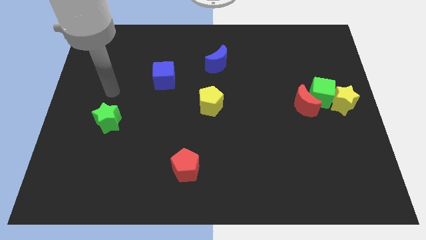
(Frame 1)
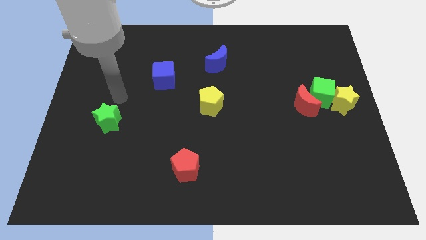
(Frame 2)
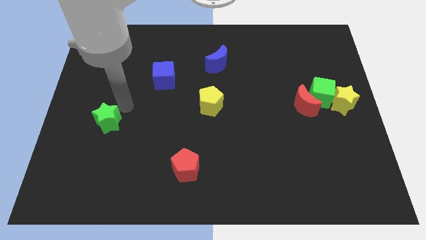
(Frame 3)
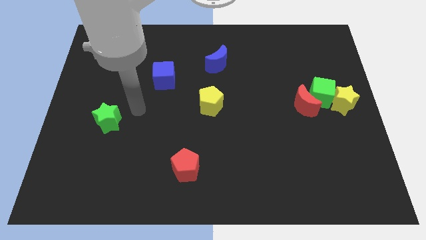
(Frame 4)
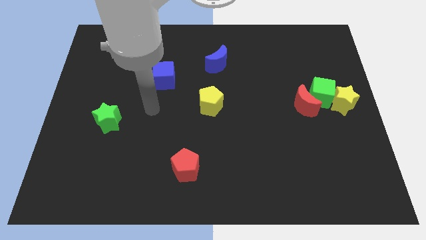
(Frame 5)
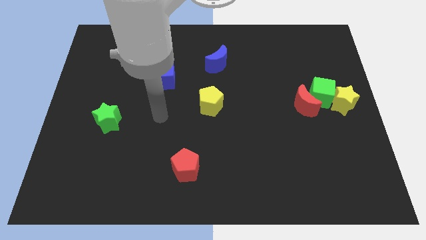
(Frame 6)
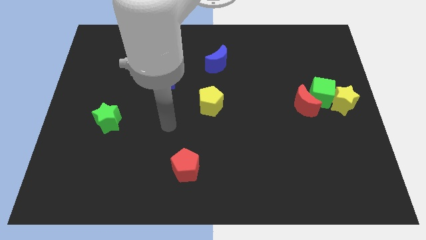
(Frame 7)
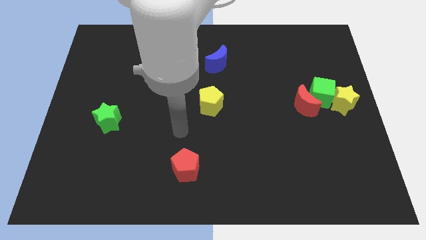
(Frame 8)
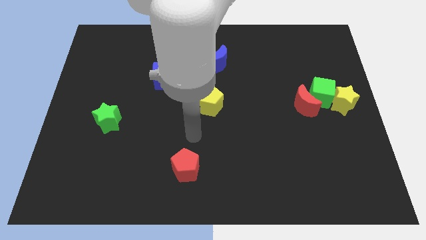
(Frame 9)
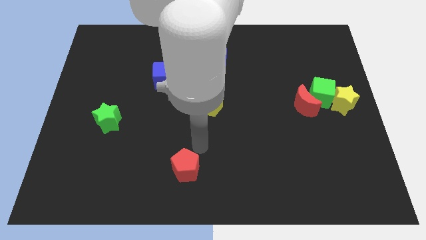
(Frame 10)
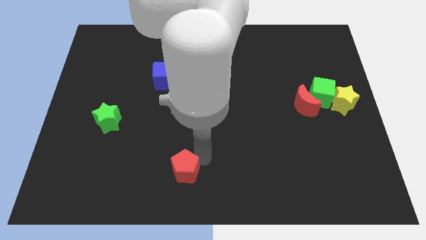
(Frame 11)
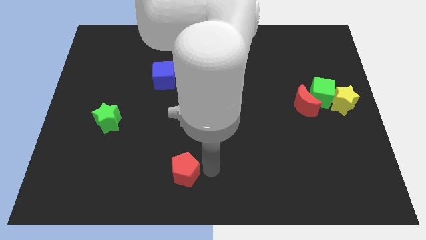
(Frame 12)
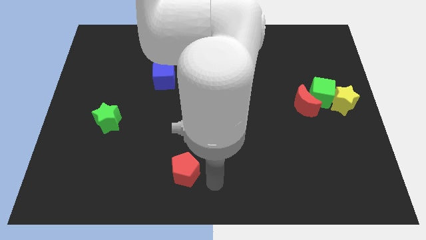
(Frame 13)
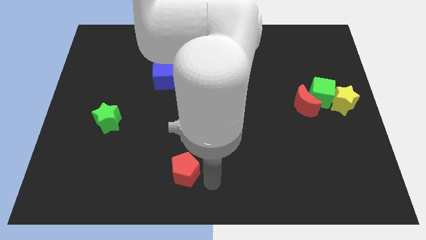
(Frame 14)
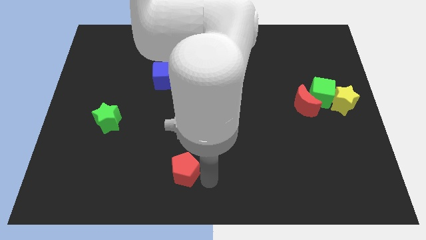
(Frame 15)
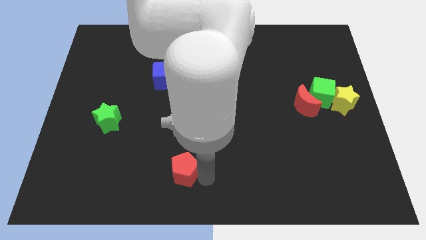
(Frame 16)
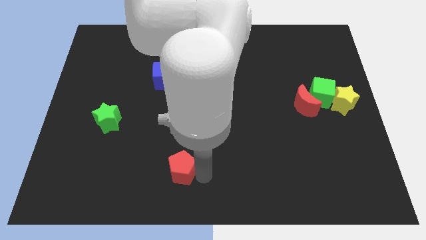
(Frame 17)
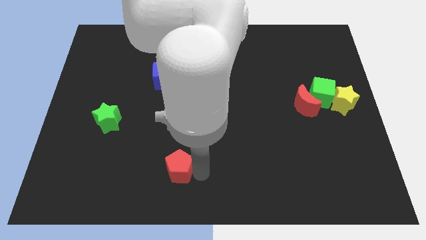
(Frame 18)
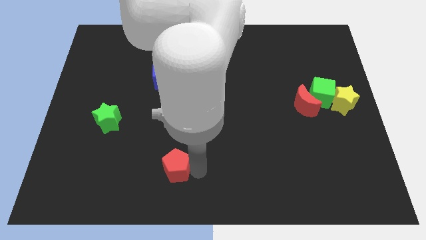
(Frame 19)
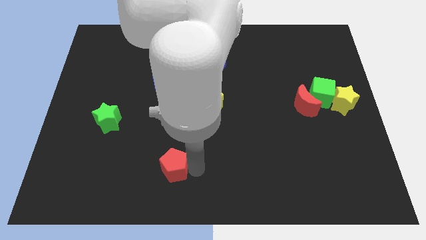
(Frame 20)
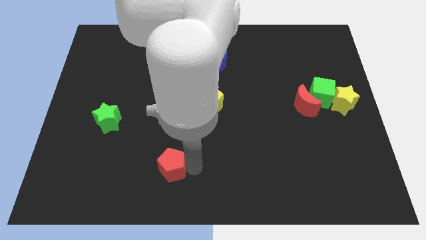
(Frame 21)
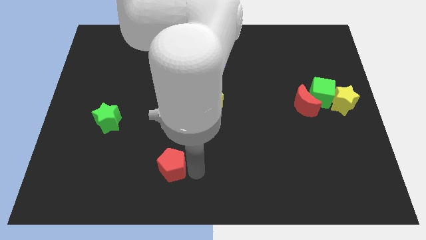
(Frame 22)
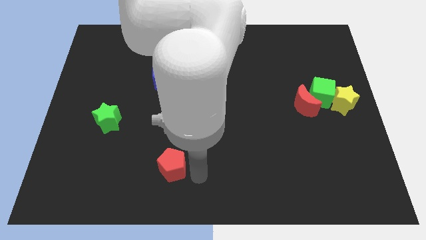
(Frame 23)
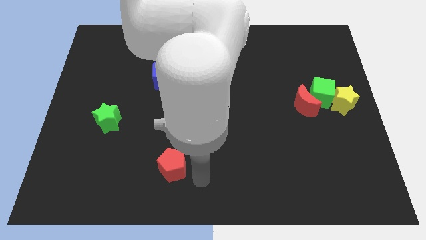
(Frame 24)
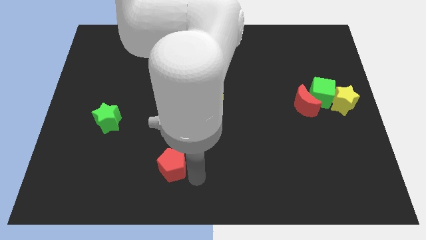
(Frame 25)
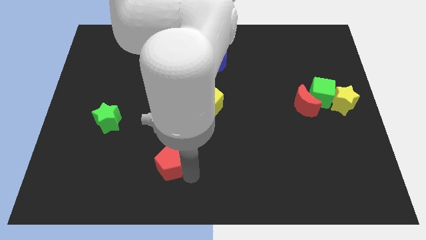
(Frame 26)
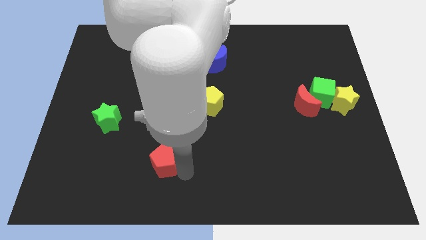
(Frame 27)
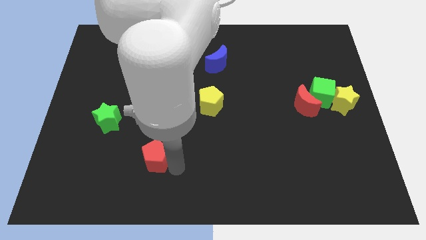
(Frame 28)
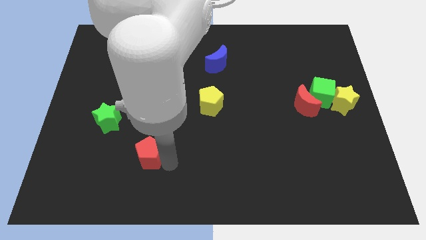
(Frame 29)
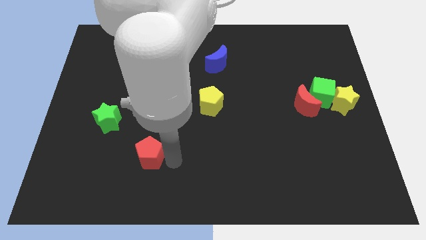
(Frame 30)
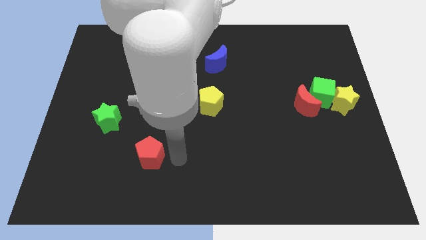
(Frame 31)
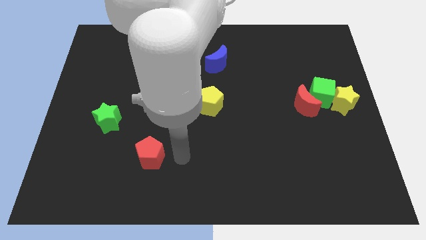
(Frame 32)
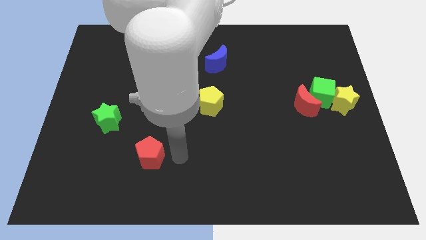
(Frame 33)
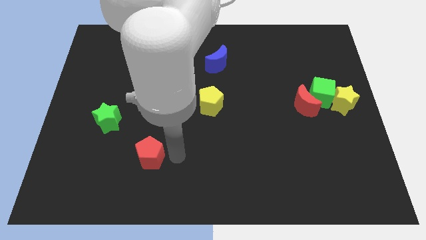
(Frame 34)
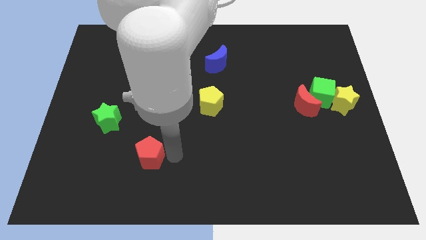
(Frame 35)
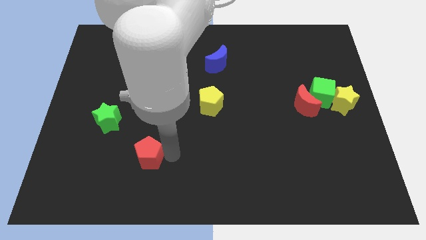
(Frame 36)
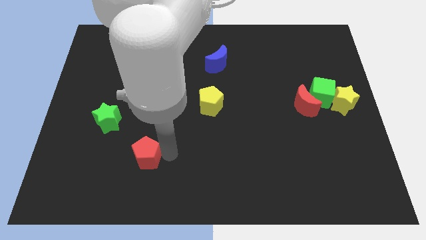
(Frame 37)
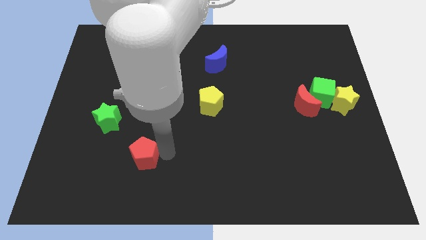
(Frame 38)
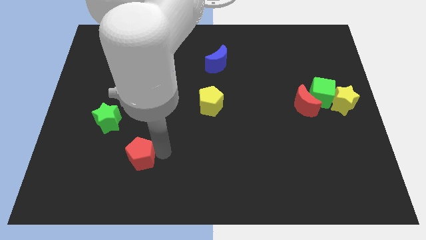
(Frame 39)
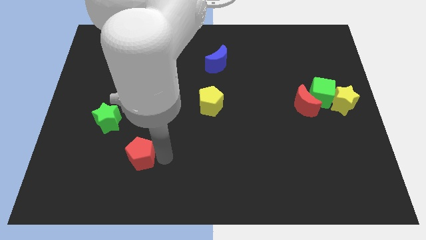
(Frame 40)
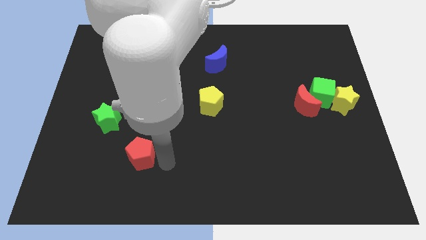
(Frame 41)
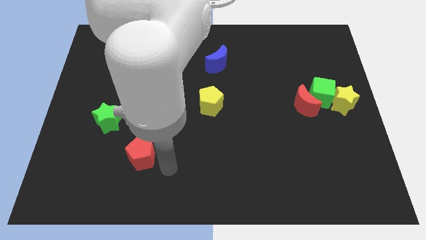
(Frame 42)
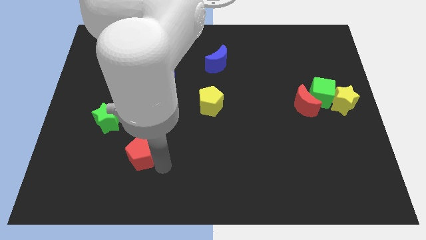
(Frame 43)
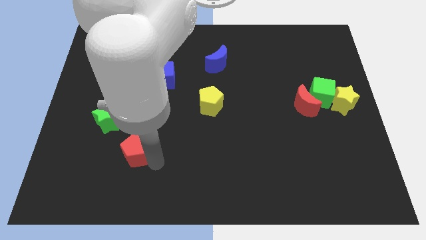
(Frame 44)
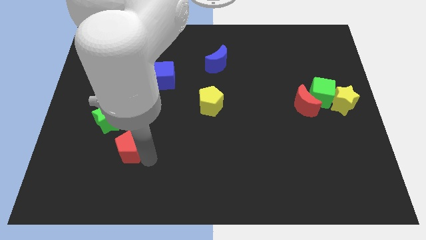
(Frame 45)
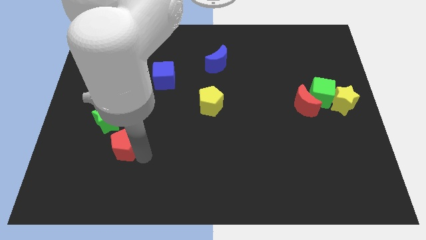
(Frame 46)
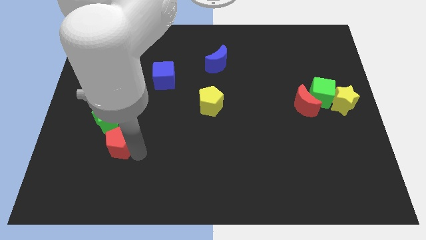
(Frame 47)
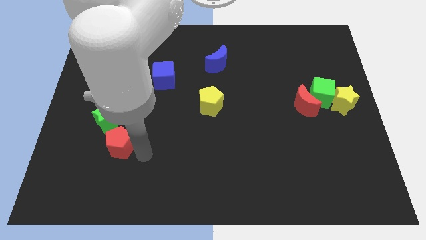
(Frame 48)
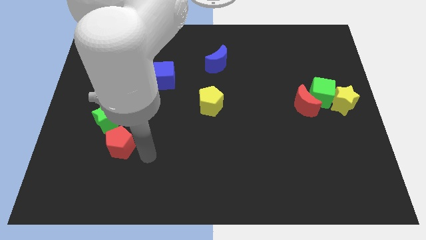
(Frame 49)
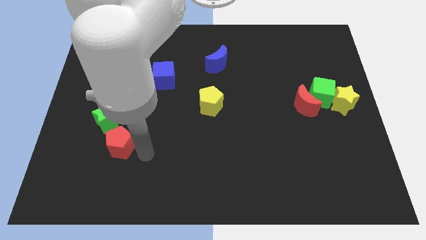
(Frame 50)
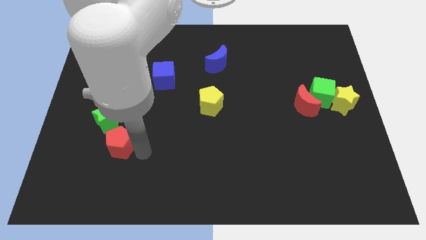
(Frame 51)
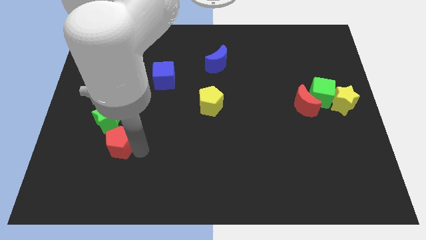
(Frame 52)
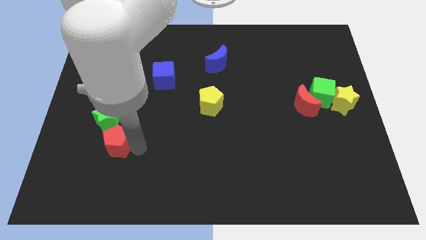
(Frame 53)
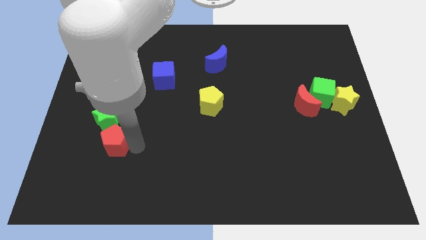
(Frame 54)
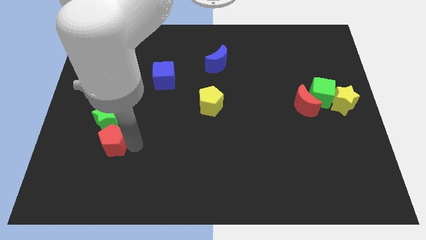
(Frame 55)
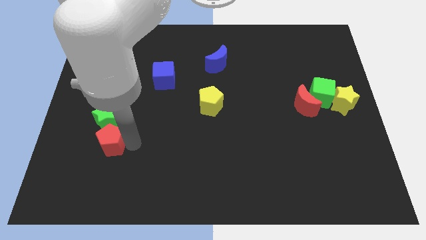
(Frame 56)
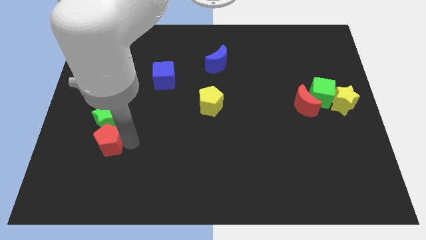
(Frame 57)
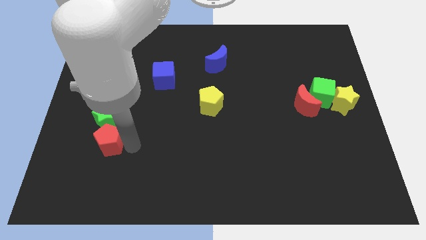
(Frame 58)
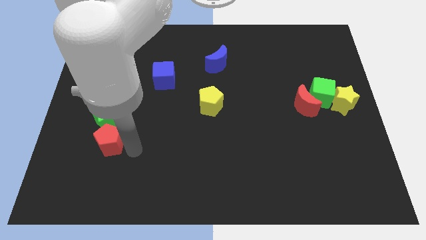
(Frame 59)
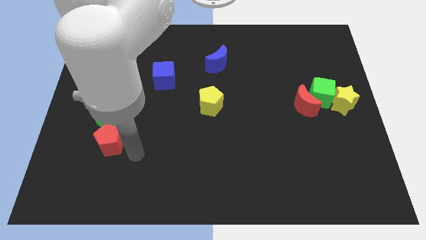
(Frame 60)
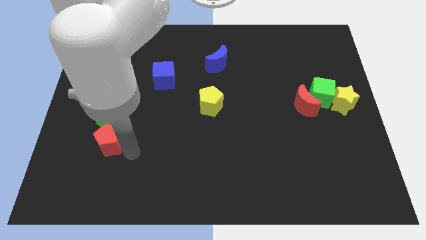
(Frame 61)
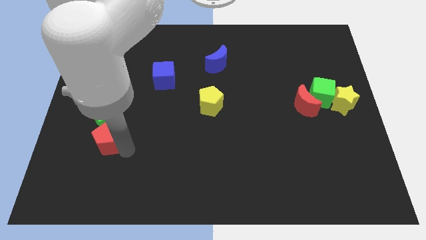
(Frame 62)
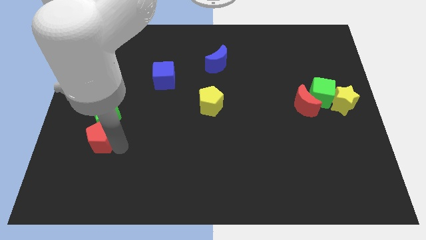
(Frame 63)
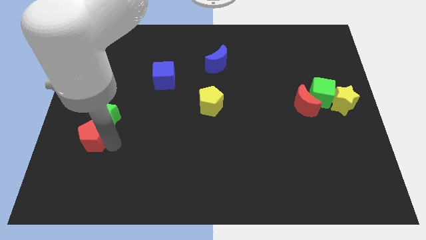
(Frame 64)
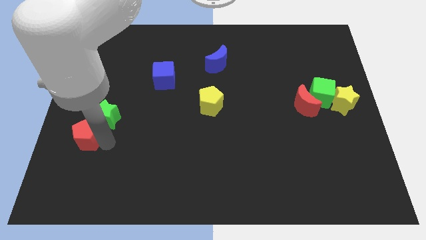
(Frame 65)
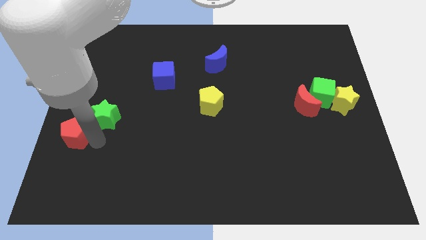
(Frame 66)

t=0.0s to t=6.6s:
push the red pentagon to the left side

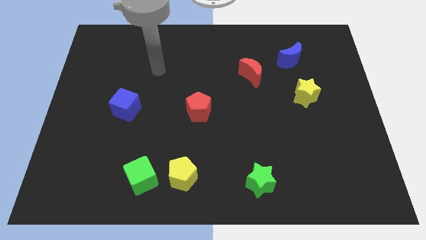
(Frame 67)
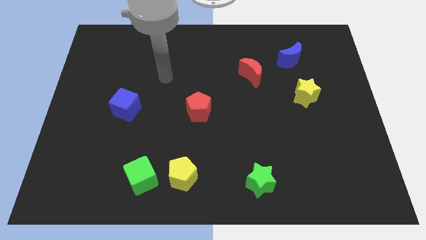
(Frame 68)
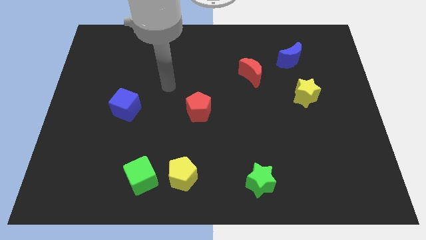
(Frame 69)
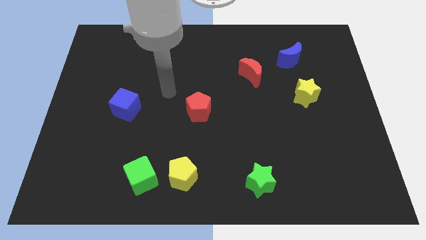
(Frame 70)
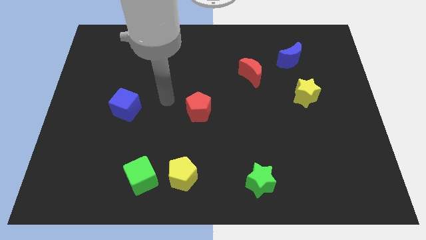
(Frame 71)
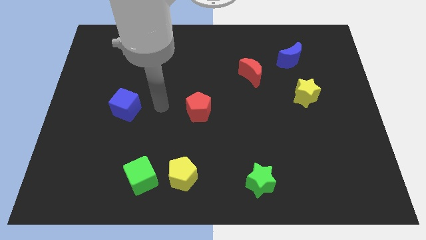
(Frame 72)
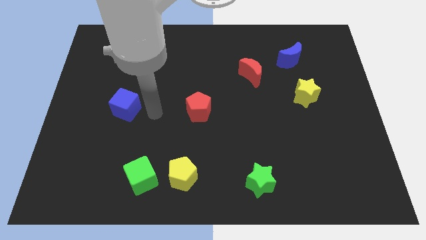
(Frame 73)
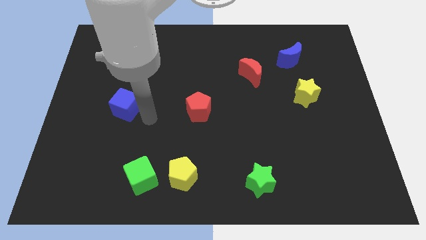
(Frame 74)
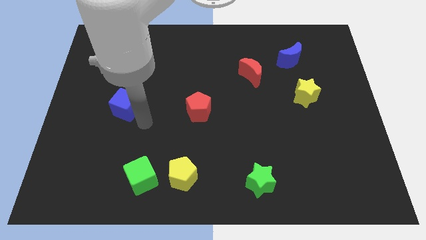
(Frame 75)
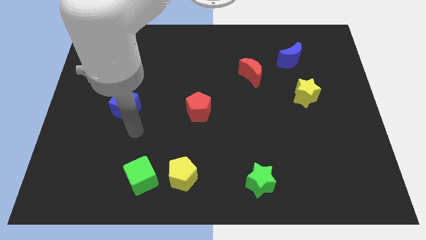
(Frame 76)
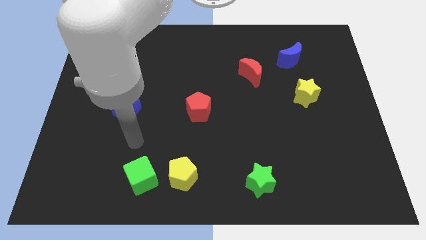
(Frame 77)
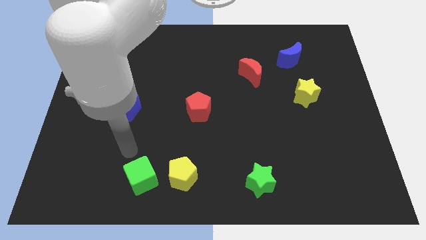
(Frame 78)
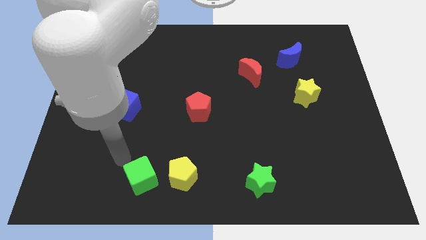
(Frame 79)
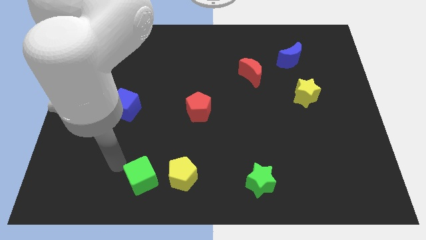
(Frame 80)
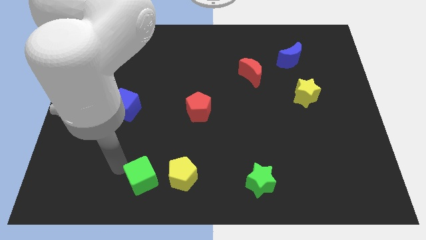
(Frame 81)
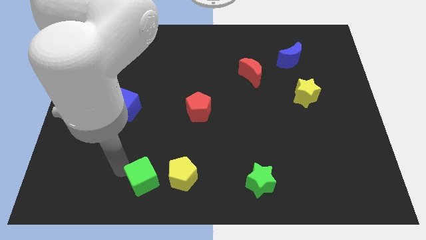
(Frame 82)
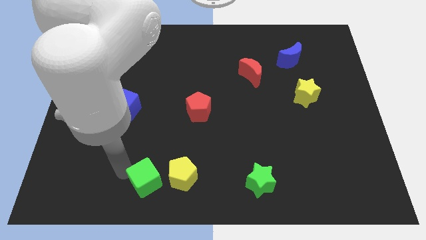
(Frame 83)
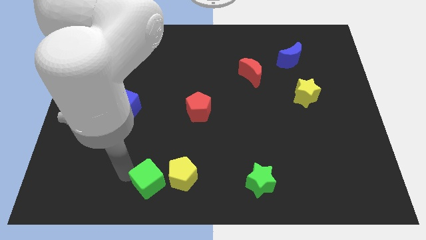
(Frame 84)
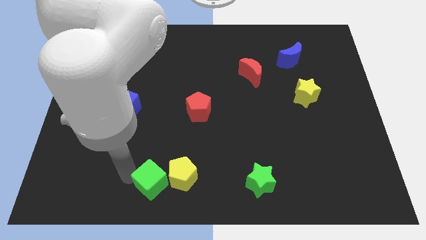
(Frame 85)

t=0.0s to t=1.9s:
push the green cube to the bottom side
